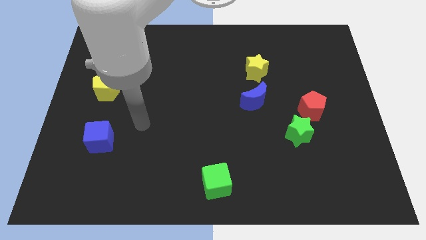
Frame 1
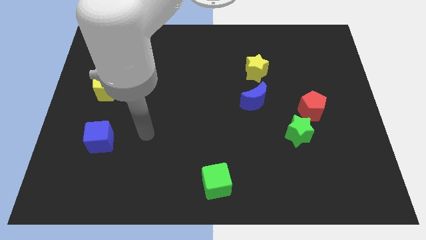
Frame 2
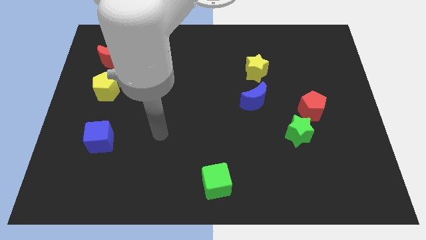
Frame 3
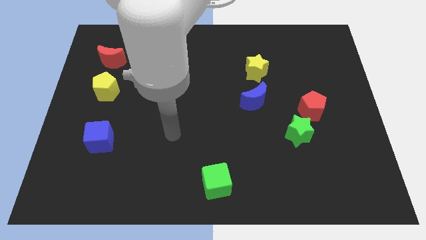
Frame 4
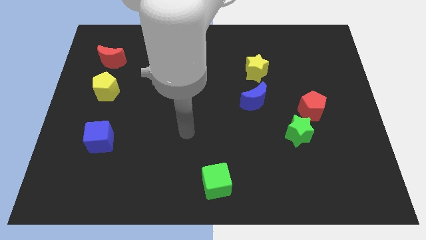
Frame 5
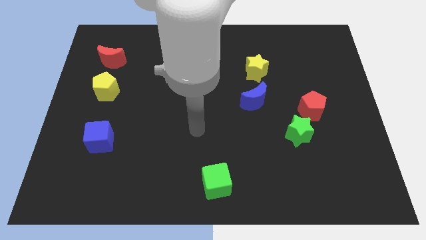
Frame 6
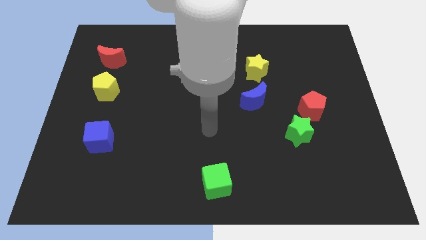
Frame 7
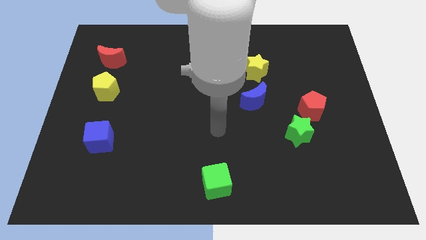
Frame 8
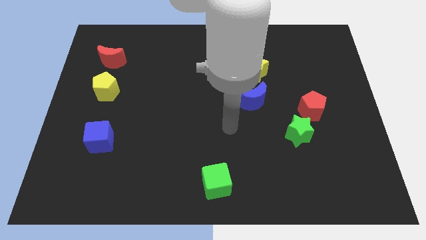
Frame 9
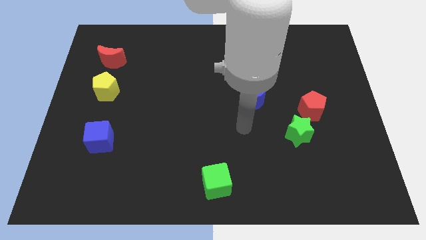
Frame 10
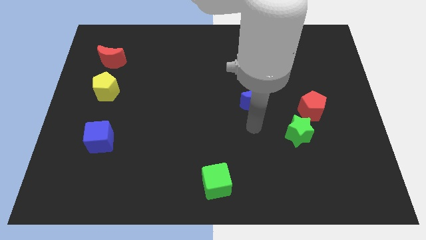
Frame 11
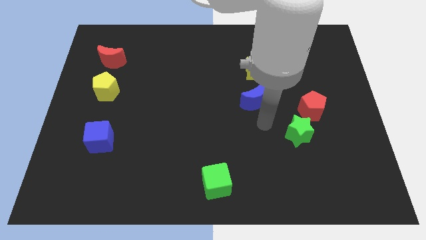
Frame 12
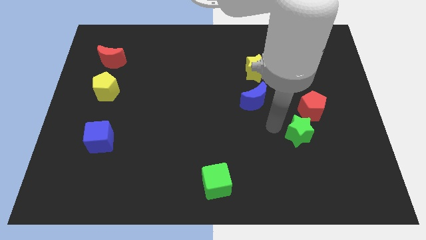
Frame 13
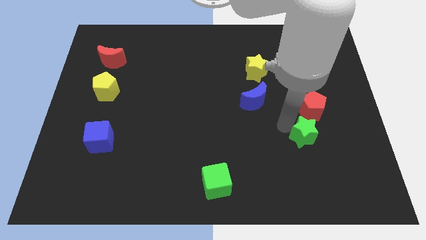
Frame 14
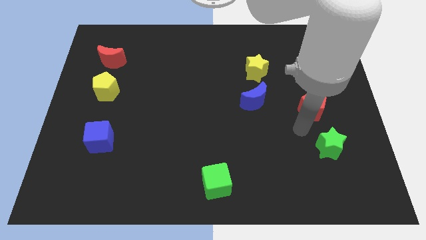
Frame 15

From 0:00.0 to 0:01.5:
pull the red pentagon apart from the green star

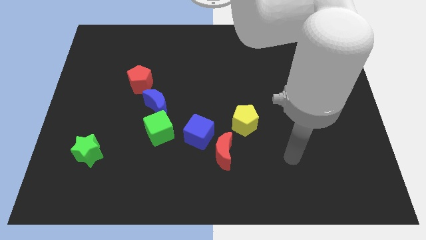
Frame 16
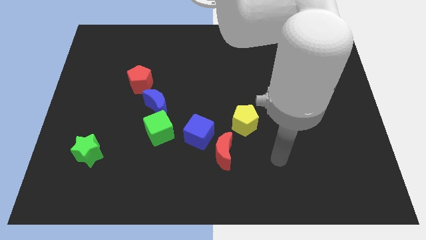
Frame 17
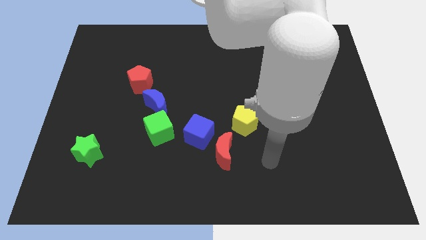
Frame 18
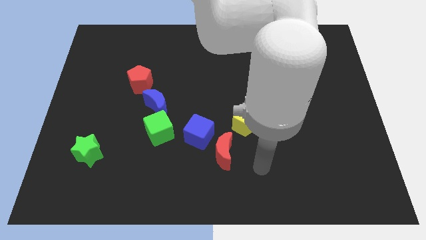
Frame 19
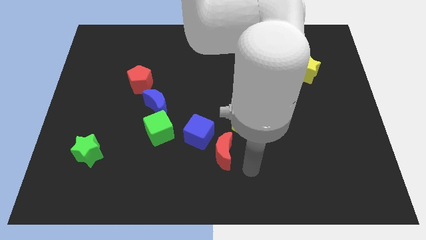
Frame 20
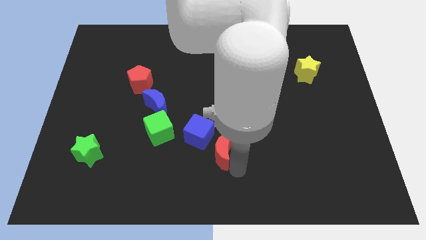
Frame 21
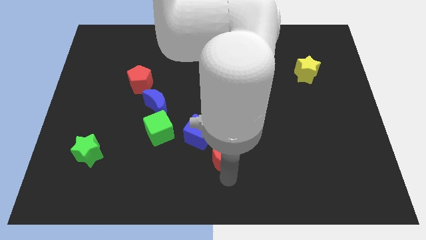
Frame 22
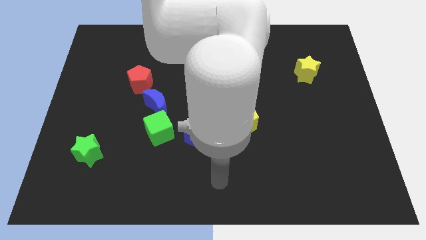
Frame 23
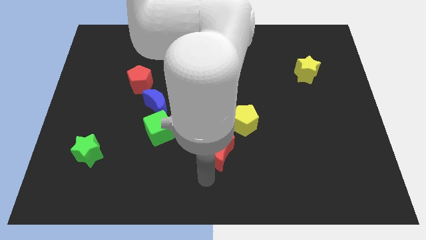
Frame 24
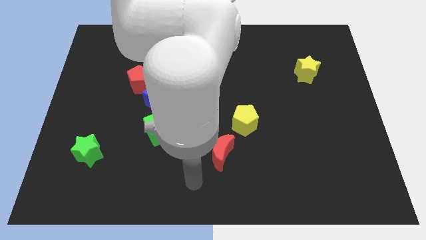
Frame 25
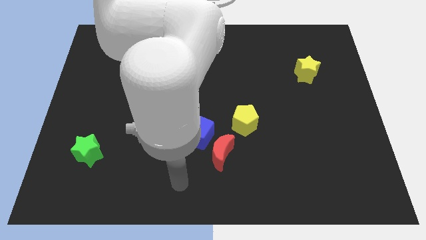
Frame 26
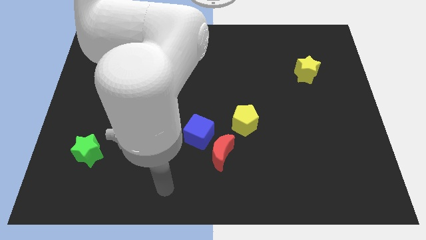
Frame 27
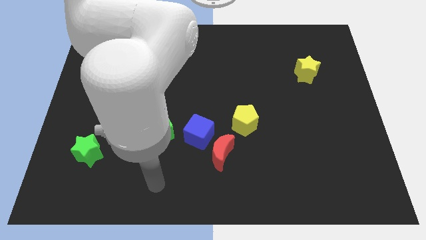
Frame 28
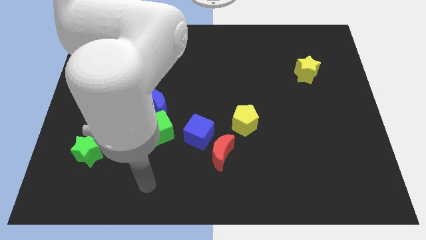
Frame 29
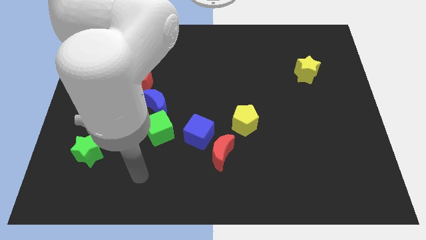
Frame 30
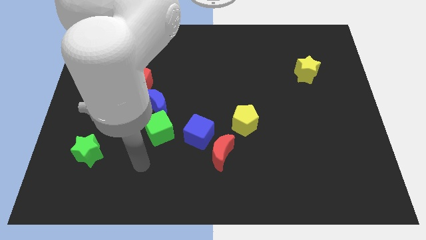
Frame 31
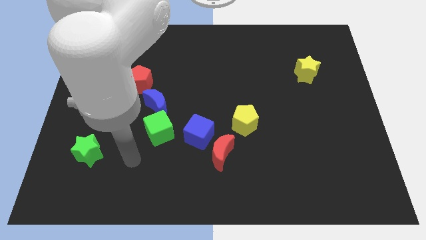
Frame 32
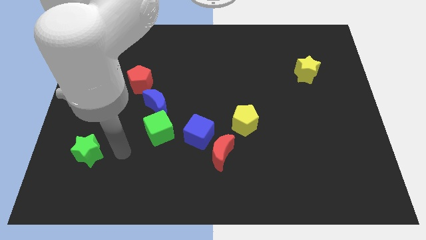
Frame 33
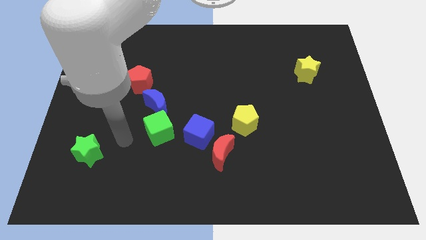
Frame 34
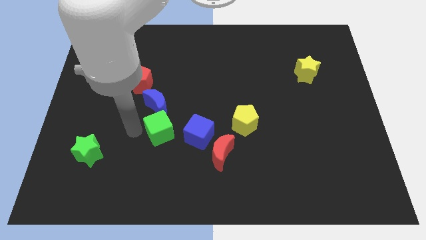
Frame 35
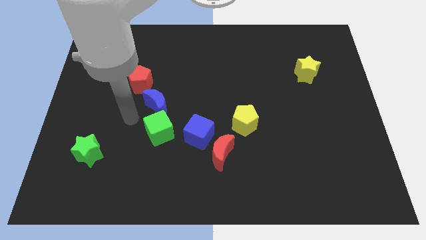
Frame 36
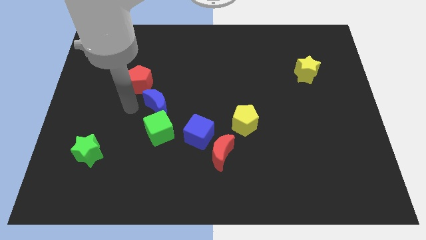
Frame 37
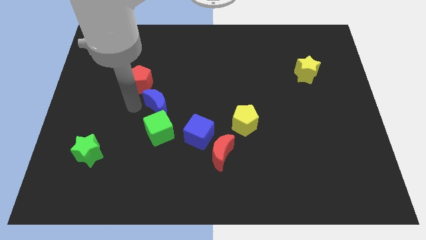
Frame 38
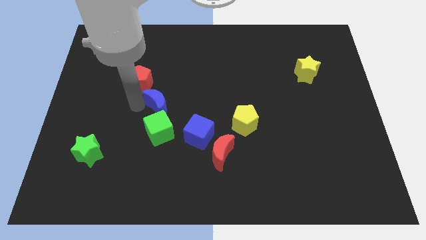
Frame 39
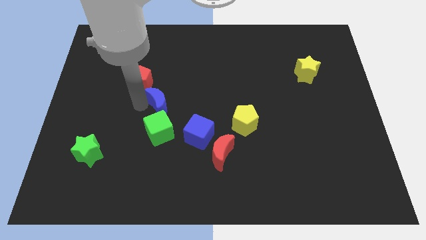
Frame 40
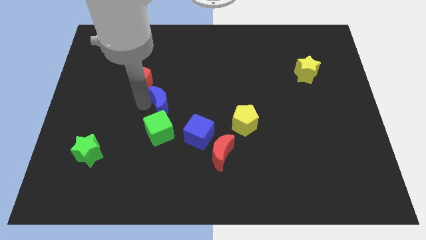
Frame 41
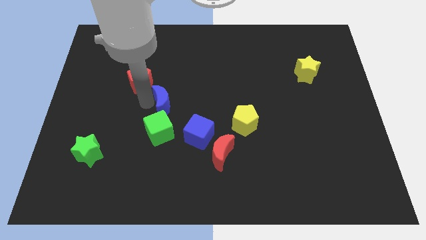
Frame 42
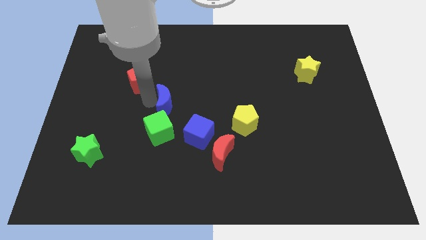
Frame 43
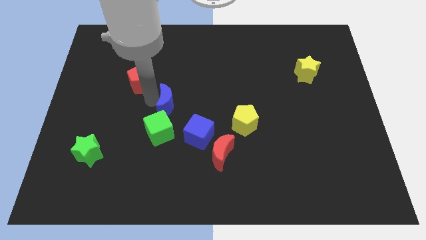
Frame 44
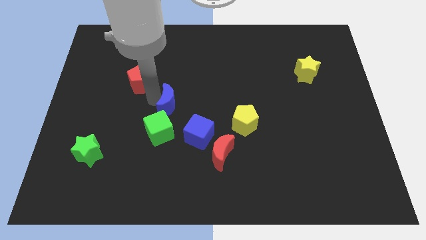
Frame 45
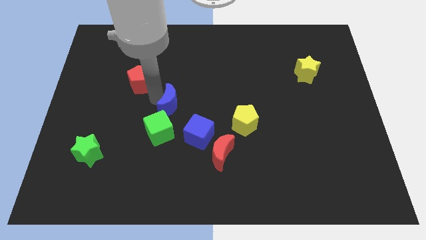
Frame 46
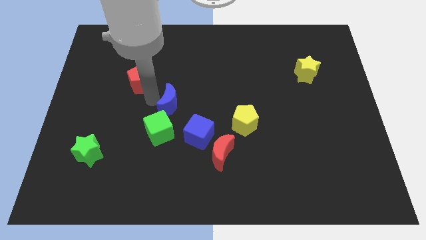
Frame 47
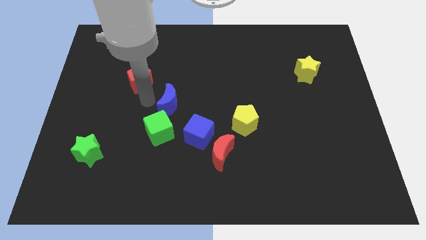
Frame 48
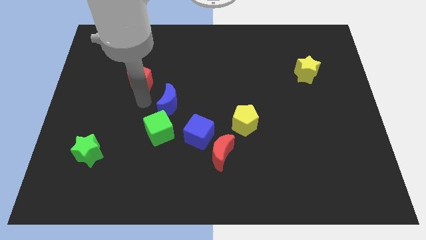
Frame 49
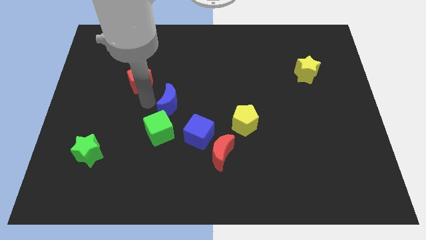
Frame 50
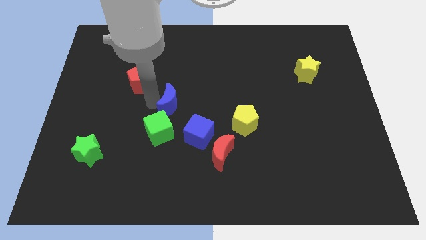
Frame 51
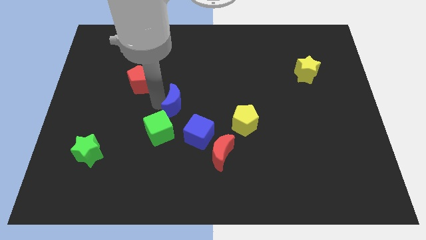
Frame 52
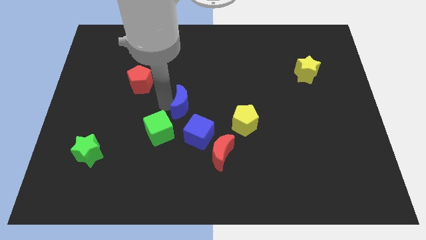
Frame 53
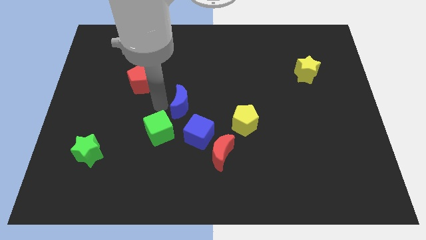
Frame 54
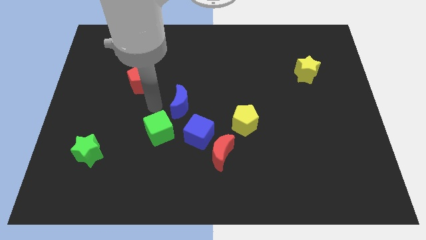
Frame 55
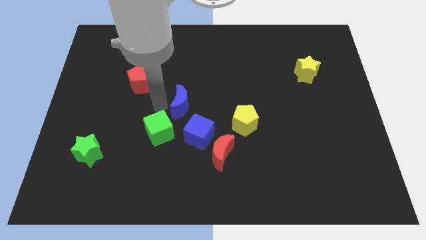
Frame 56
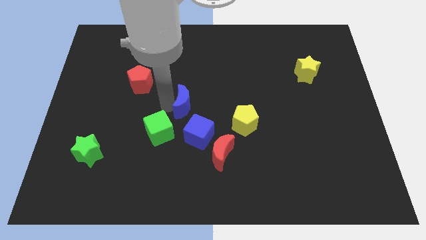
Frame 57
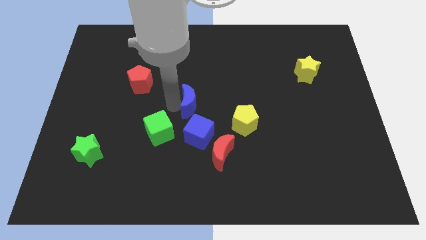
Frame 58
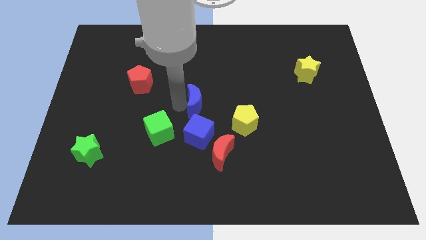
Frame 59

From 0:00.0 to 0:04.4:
move the blue moon away from the green cube and red pentagon

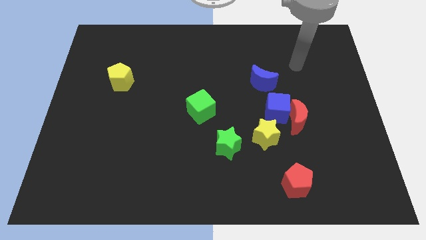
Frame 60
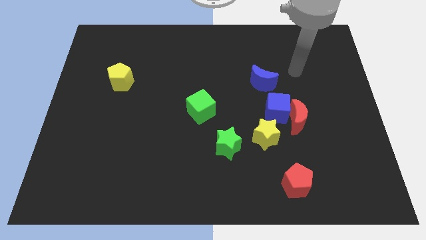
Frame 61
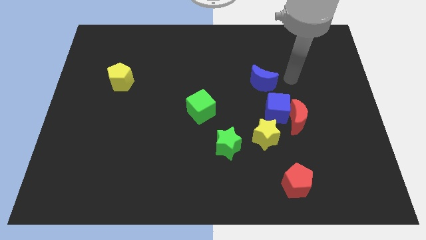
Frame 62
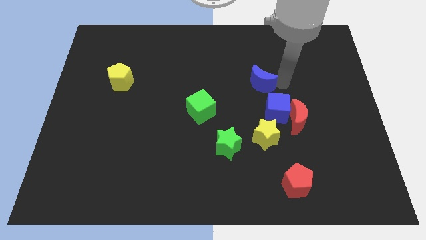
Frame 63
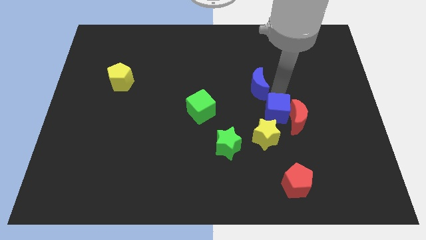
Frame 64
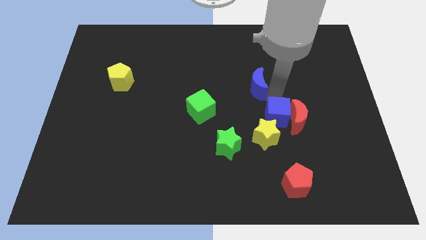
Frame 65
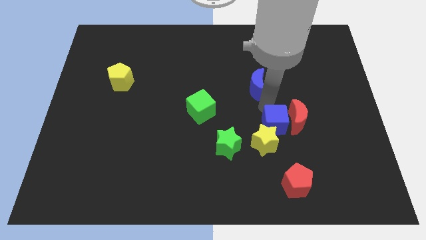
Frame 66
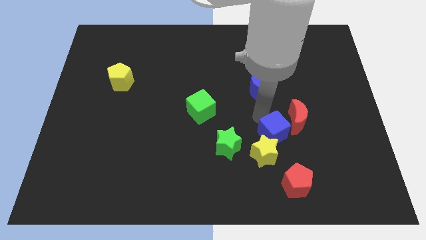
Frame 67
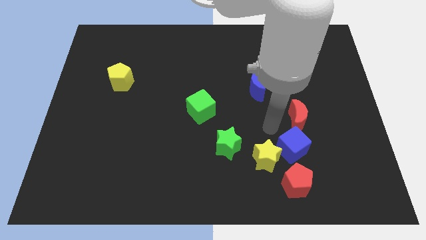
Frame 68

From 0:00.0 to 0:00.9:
move the red moon away from the blue cube and yellow star

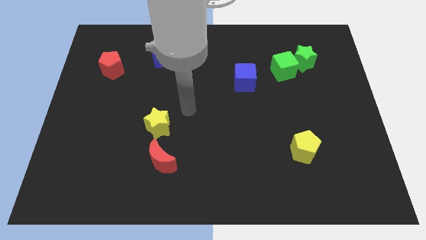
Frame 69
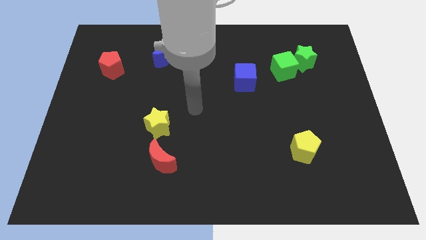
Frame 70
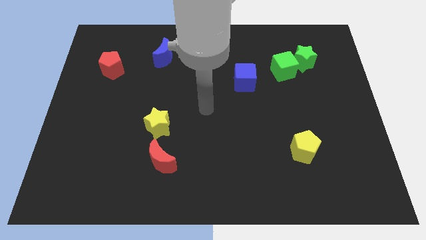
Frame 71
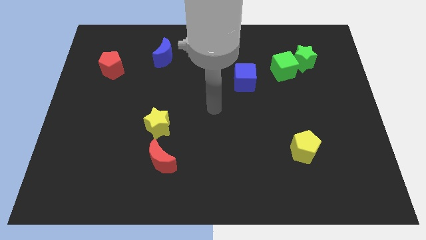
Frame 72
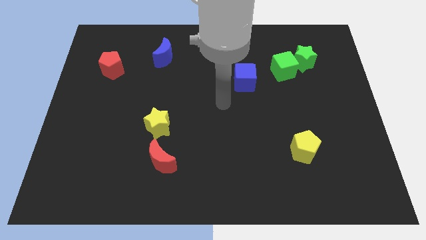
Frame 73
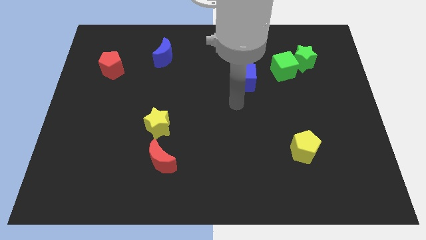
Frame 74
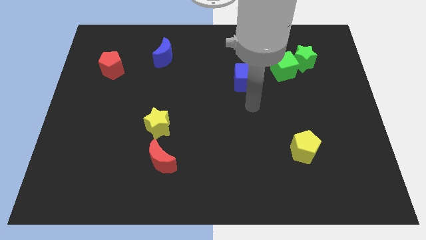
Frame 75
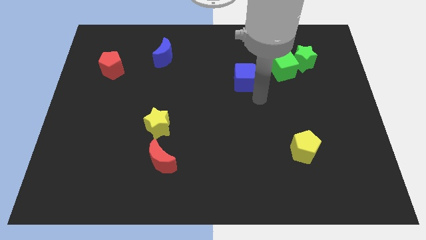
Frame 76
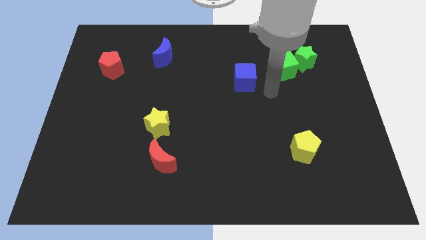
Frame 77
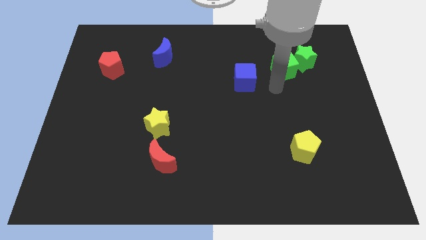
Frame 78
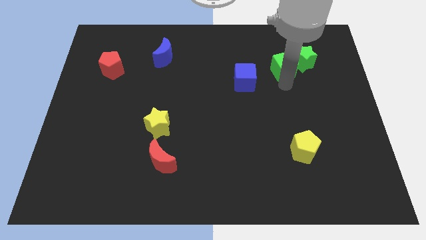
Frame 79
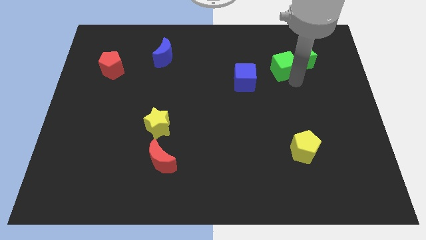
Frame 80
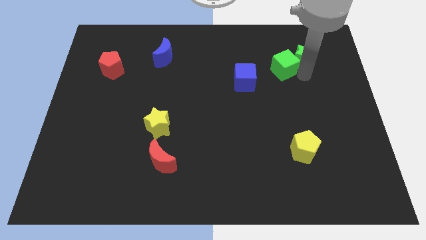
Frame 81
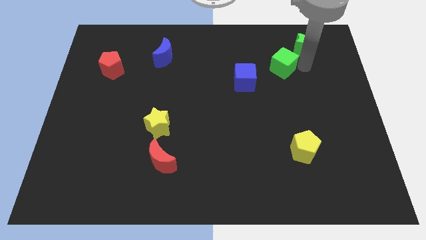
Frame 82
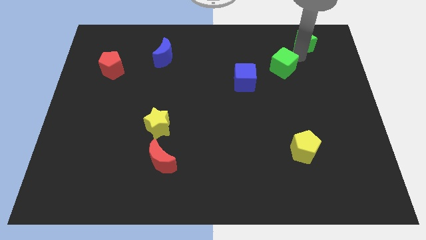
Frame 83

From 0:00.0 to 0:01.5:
move the green cube away from the green star

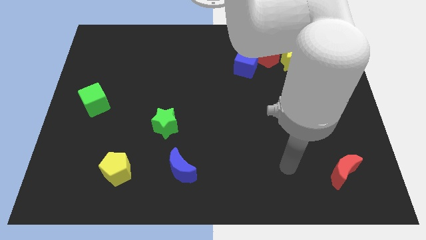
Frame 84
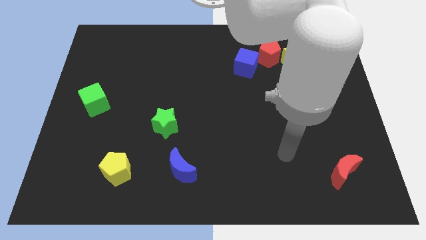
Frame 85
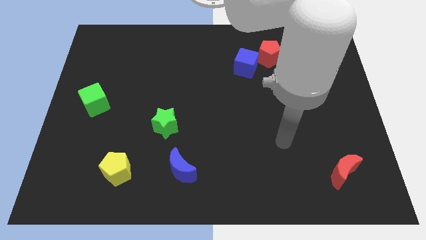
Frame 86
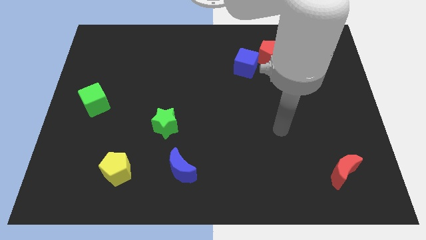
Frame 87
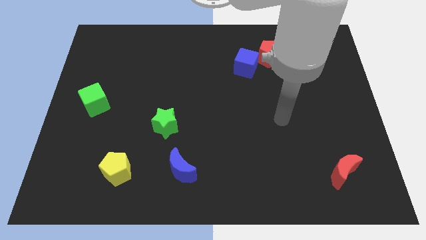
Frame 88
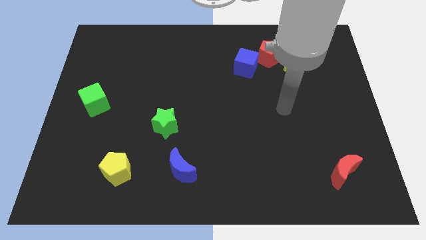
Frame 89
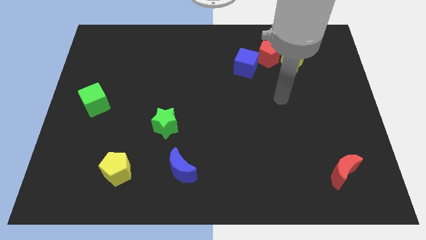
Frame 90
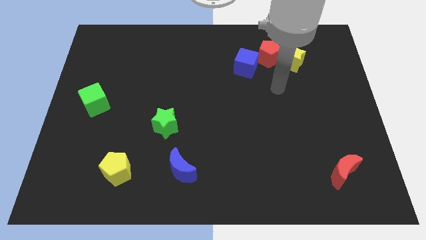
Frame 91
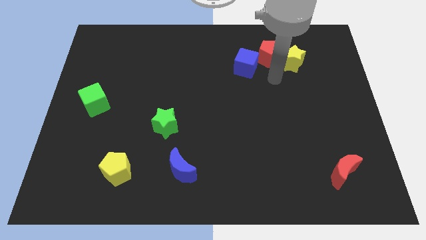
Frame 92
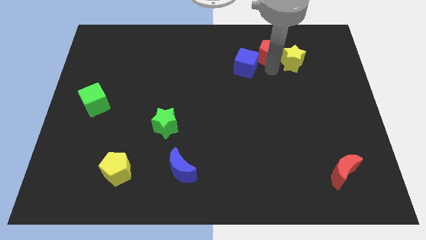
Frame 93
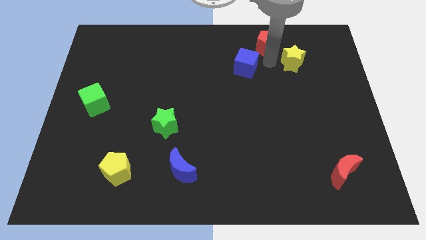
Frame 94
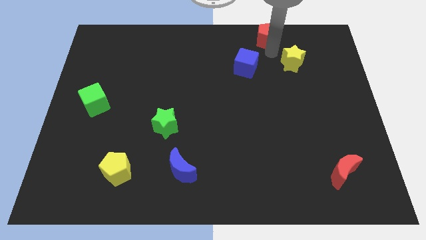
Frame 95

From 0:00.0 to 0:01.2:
pull the yellow star apart from the red pentagon
